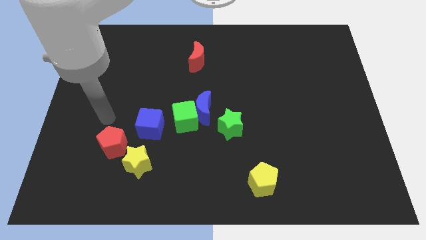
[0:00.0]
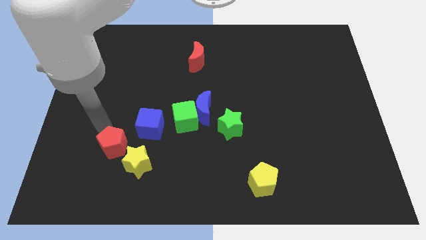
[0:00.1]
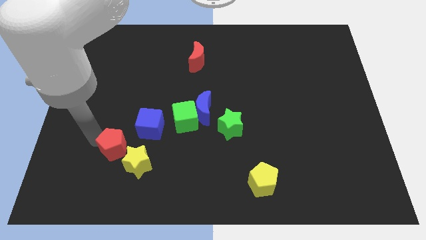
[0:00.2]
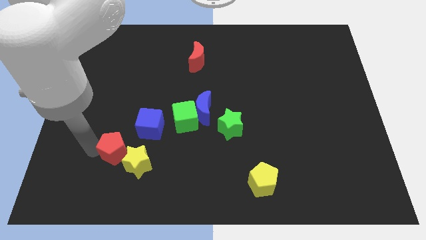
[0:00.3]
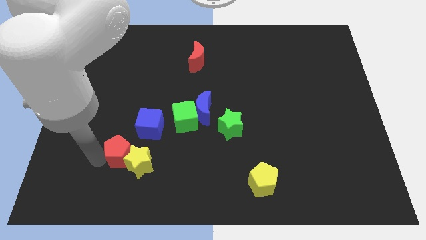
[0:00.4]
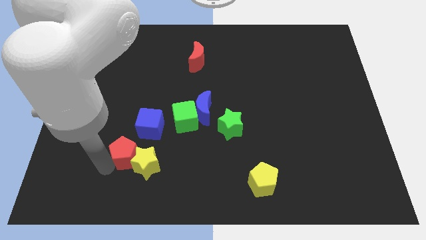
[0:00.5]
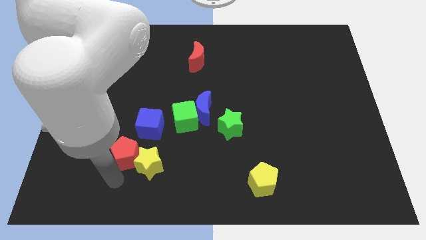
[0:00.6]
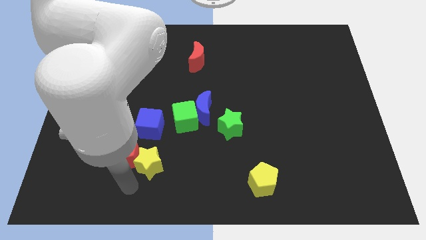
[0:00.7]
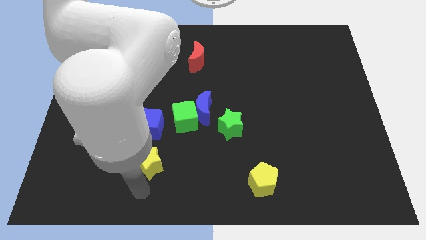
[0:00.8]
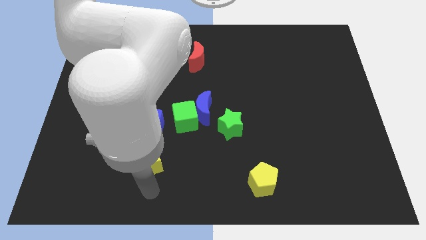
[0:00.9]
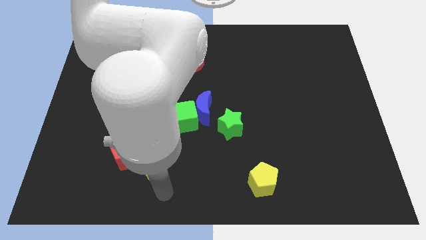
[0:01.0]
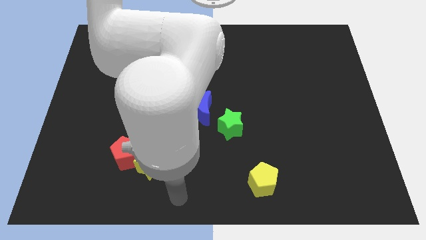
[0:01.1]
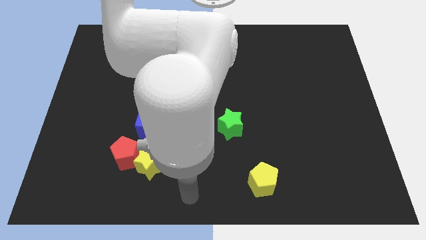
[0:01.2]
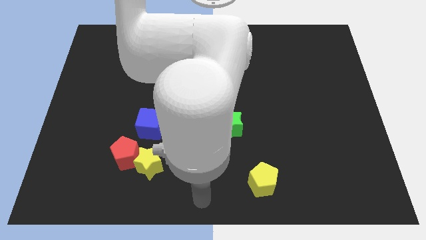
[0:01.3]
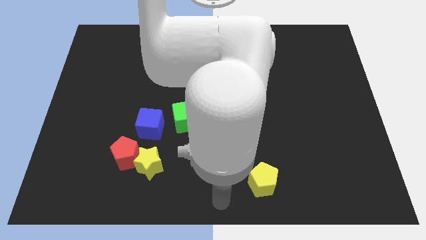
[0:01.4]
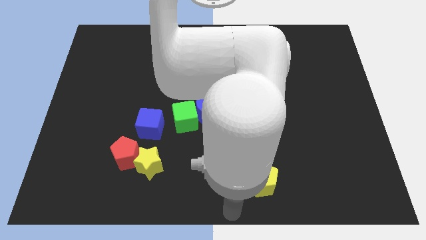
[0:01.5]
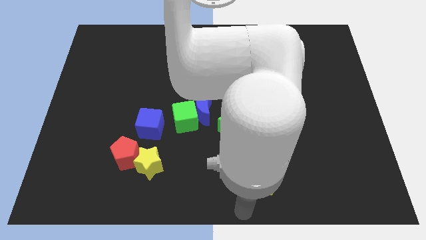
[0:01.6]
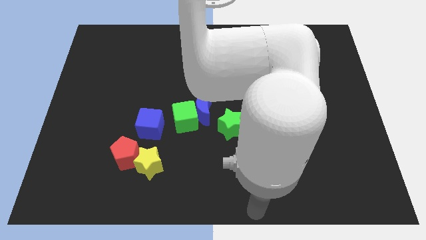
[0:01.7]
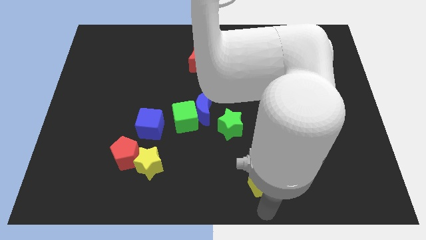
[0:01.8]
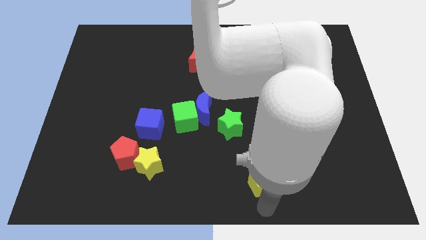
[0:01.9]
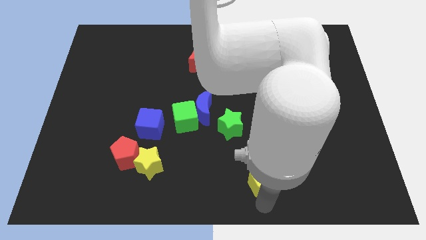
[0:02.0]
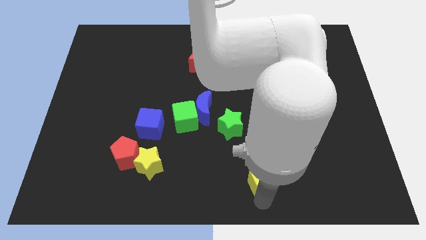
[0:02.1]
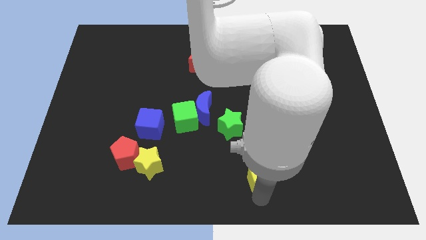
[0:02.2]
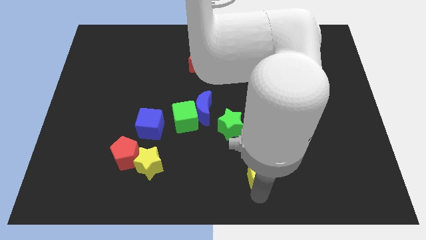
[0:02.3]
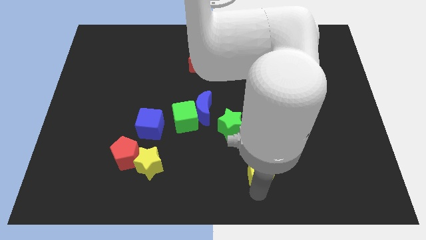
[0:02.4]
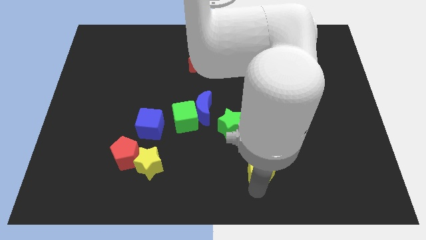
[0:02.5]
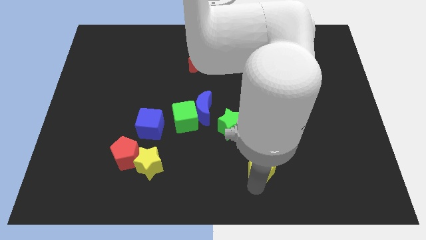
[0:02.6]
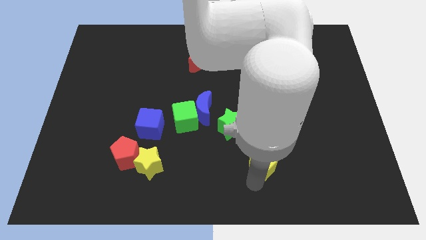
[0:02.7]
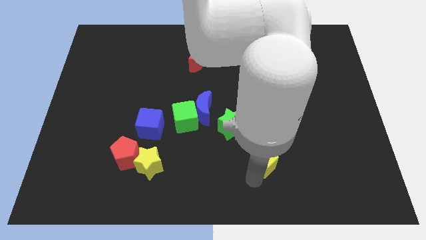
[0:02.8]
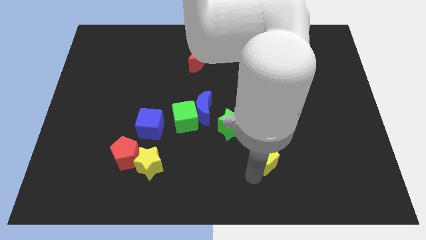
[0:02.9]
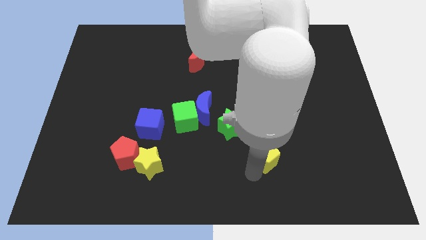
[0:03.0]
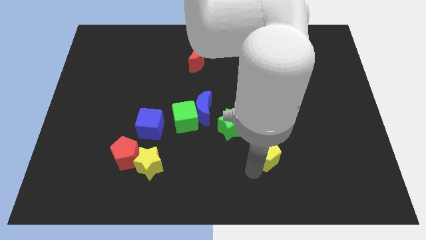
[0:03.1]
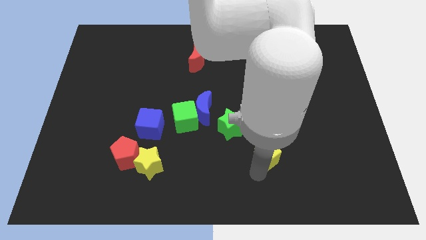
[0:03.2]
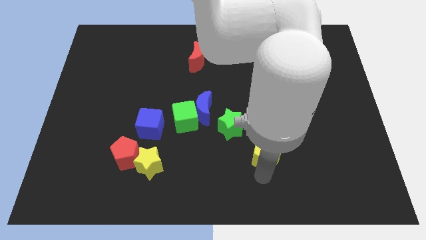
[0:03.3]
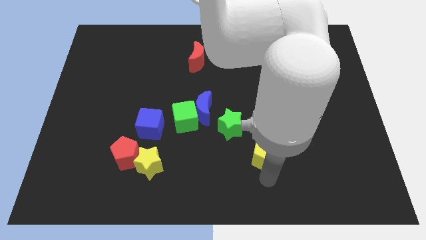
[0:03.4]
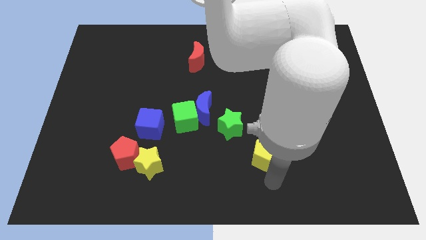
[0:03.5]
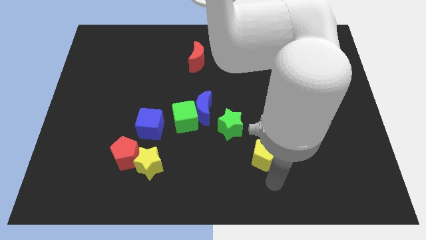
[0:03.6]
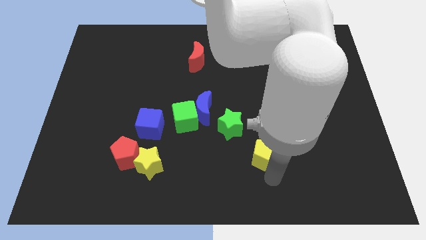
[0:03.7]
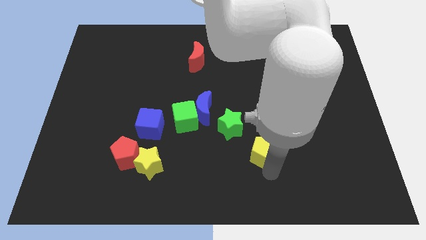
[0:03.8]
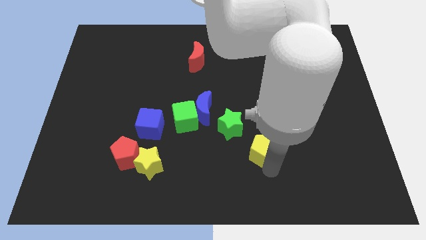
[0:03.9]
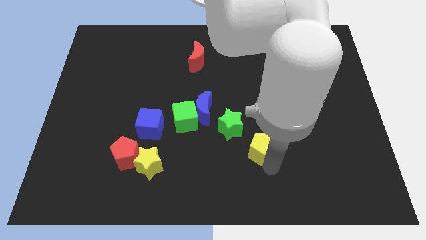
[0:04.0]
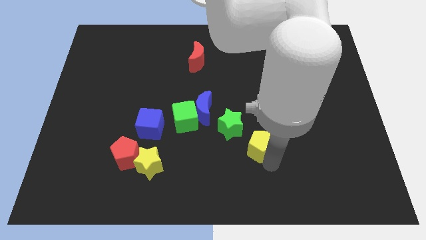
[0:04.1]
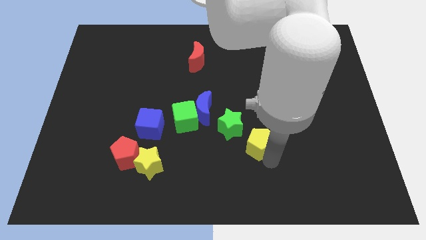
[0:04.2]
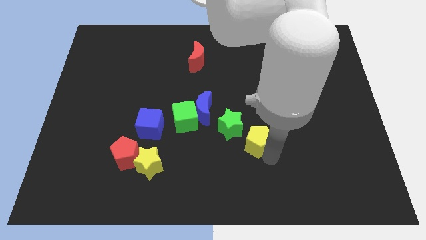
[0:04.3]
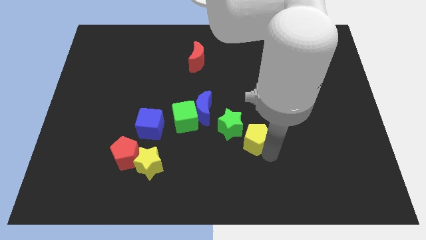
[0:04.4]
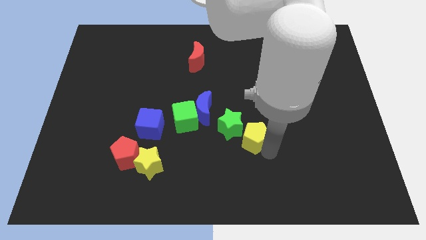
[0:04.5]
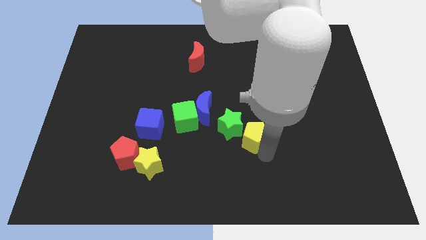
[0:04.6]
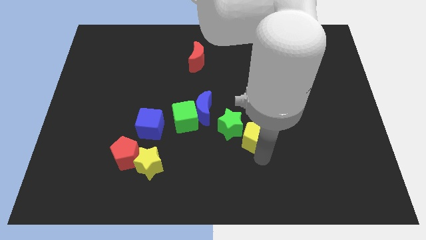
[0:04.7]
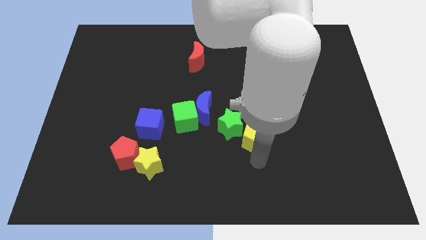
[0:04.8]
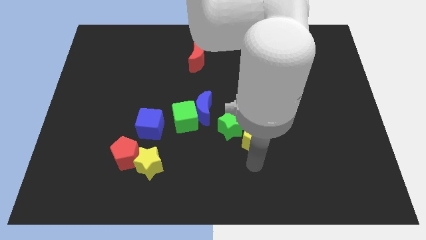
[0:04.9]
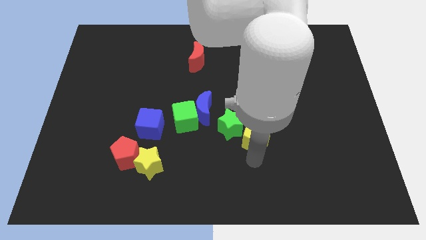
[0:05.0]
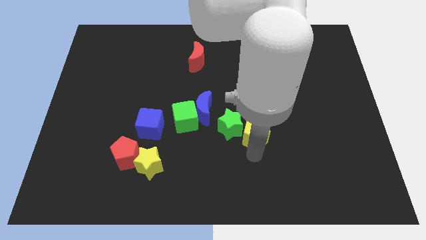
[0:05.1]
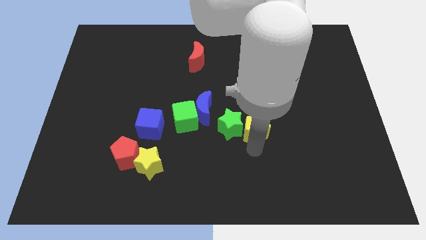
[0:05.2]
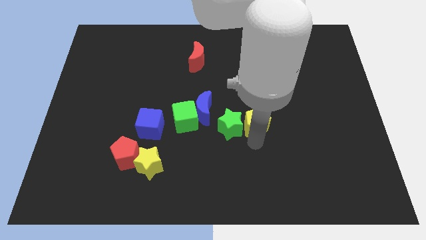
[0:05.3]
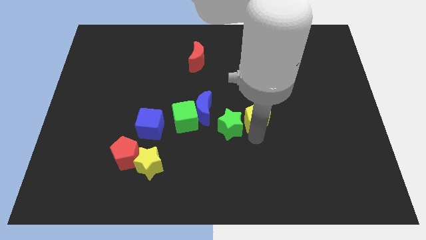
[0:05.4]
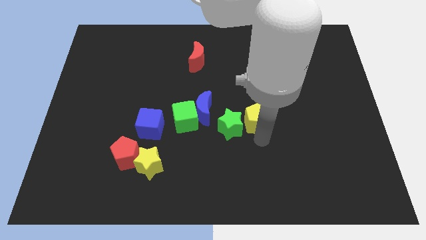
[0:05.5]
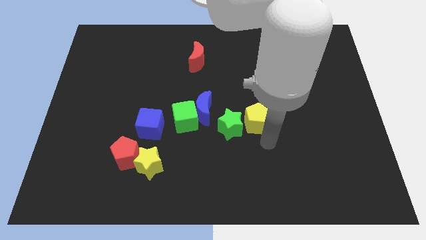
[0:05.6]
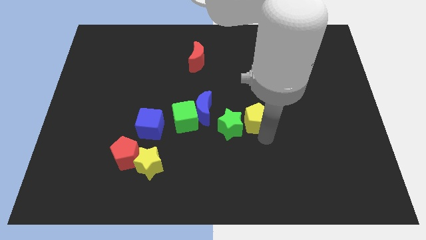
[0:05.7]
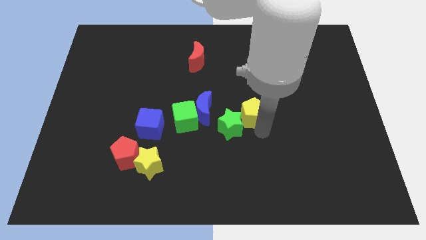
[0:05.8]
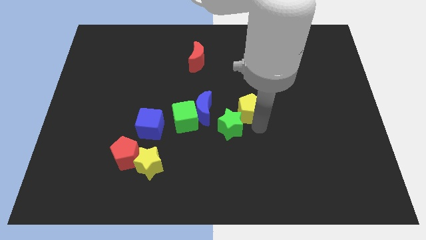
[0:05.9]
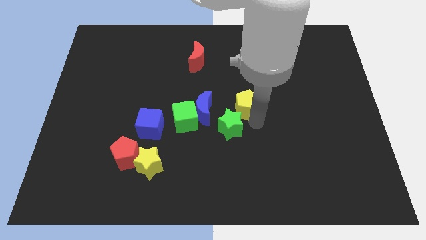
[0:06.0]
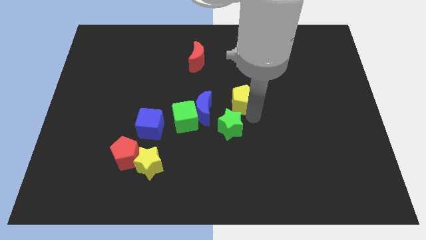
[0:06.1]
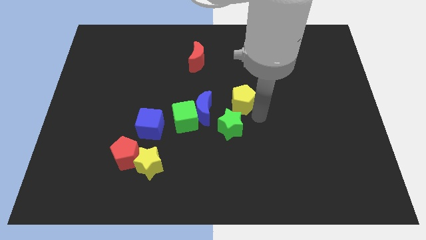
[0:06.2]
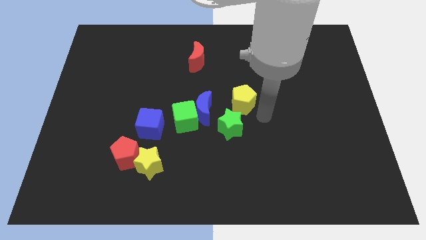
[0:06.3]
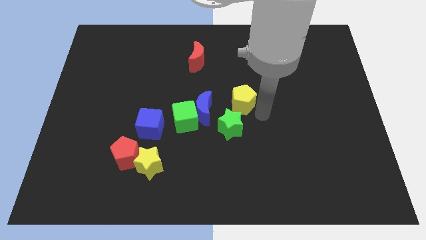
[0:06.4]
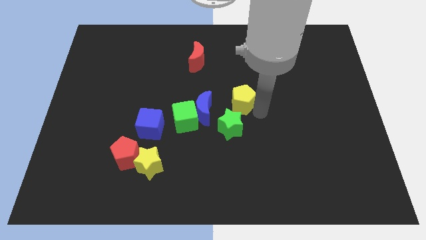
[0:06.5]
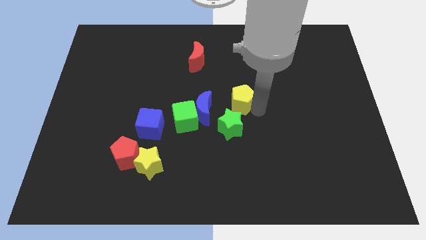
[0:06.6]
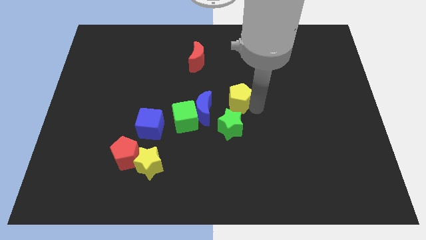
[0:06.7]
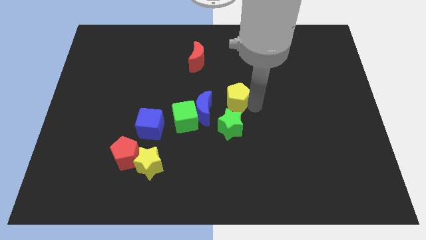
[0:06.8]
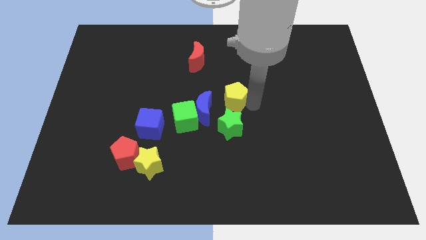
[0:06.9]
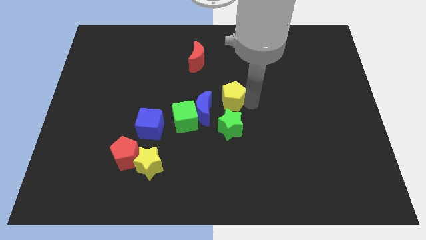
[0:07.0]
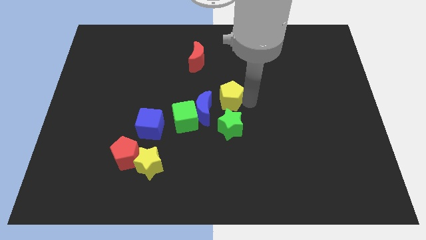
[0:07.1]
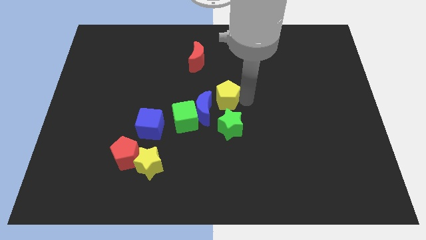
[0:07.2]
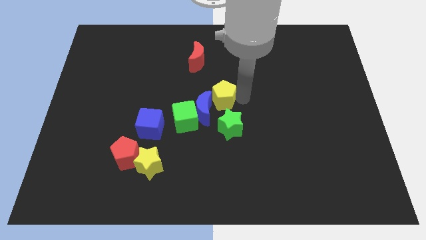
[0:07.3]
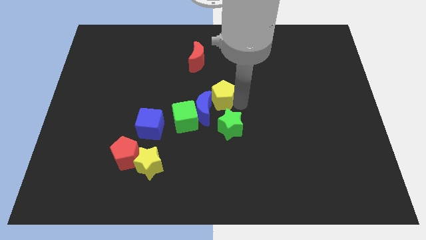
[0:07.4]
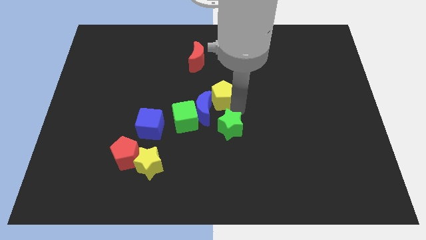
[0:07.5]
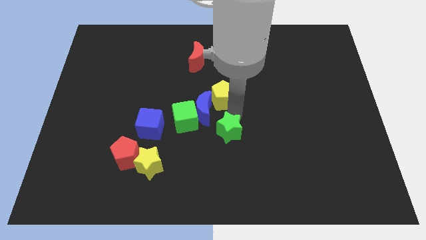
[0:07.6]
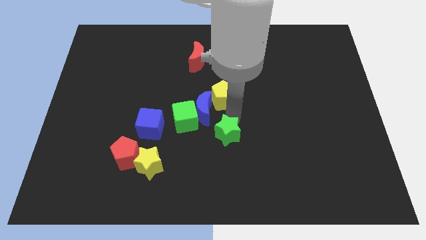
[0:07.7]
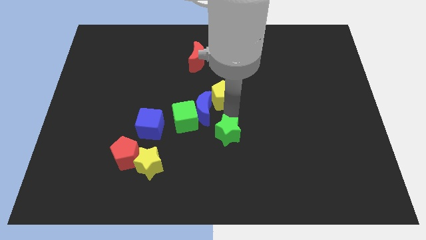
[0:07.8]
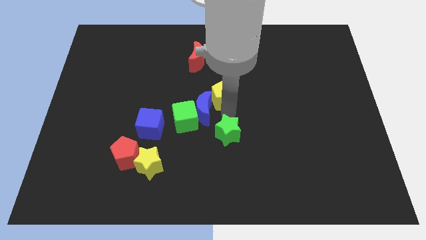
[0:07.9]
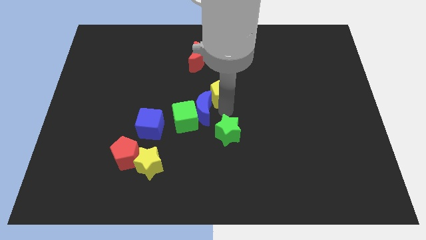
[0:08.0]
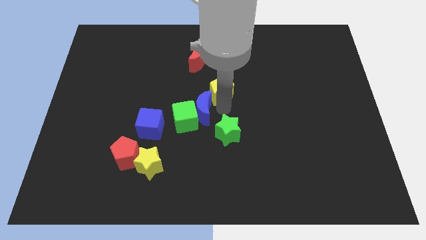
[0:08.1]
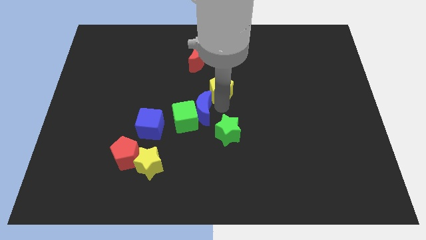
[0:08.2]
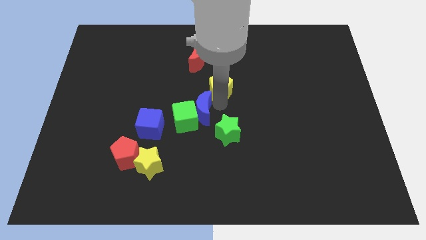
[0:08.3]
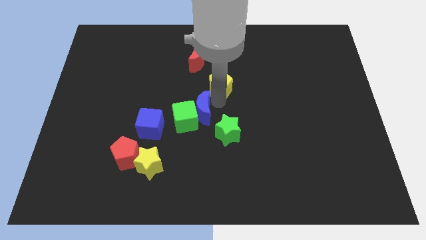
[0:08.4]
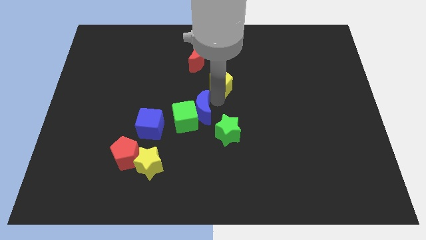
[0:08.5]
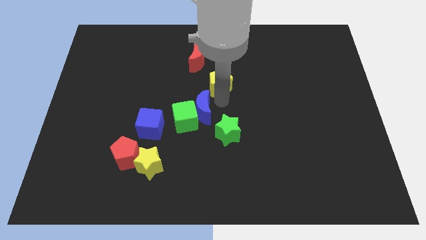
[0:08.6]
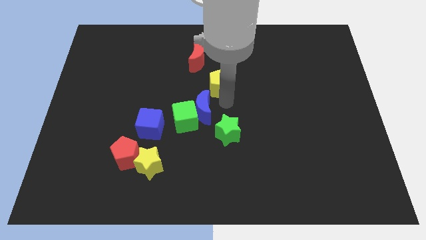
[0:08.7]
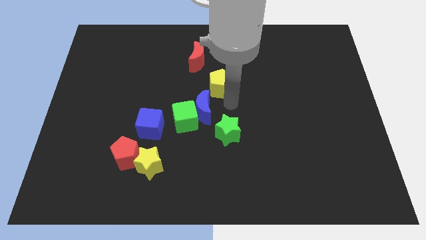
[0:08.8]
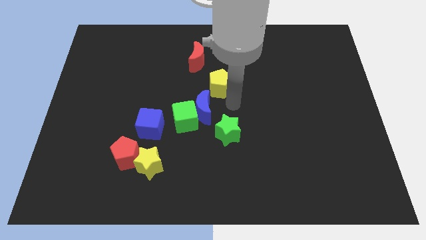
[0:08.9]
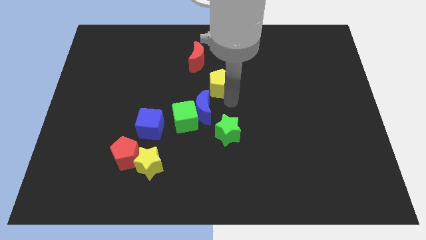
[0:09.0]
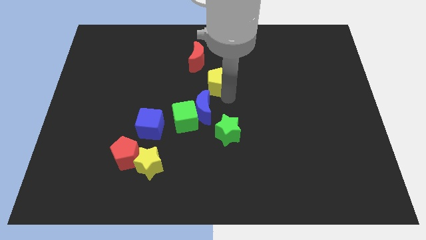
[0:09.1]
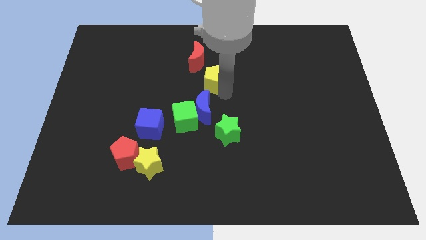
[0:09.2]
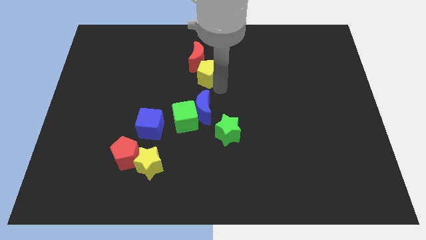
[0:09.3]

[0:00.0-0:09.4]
put the yellow pentagon to the red moon
